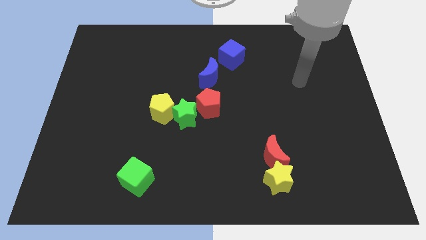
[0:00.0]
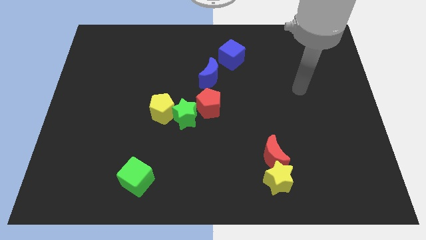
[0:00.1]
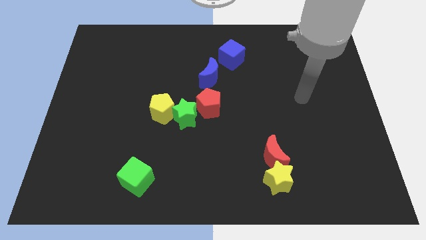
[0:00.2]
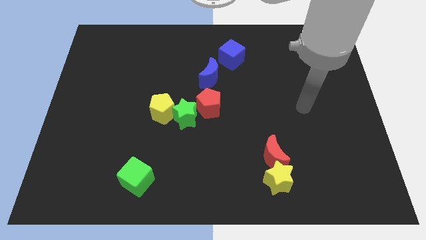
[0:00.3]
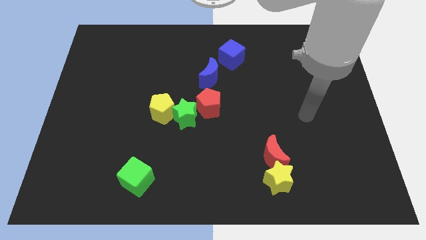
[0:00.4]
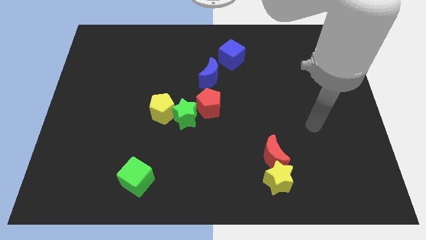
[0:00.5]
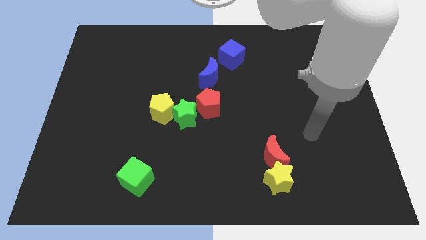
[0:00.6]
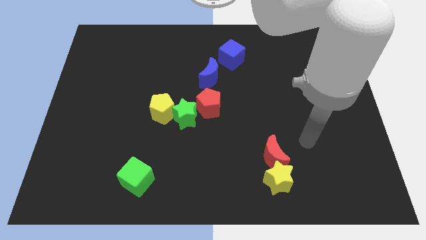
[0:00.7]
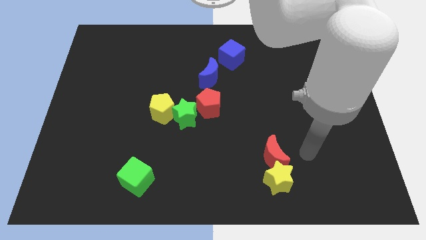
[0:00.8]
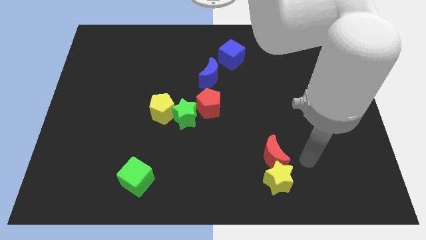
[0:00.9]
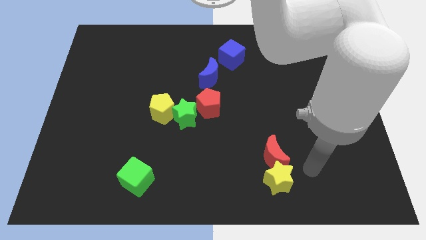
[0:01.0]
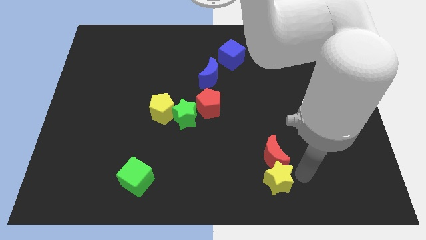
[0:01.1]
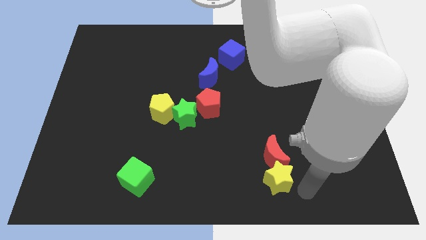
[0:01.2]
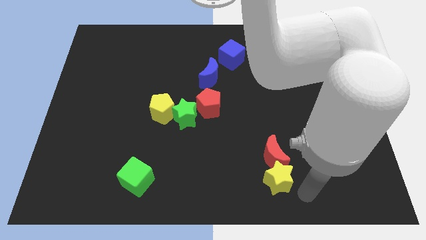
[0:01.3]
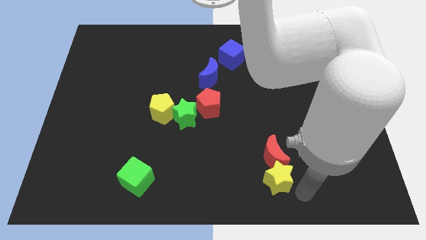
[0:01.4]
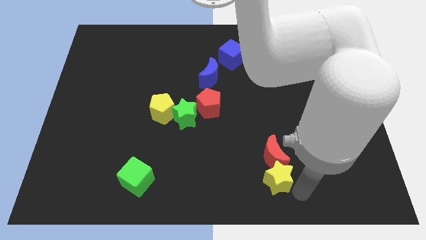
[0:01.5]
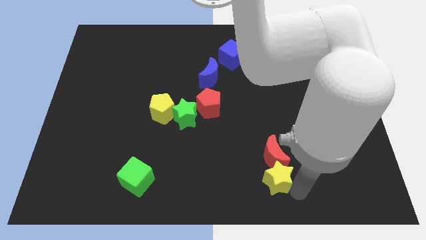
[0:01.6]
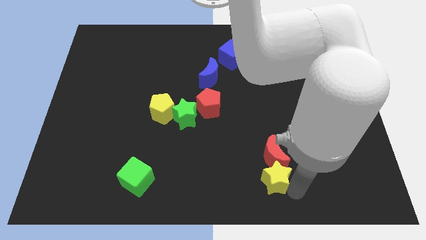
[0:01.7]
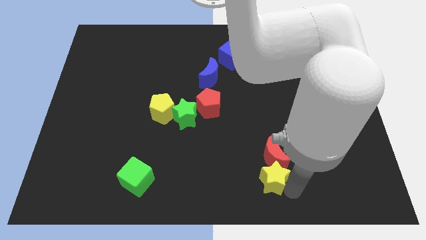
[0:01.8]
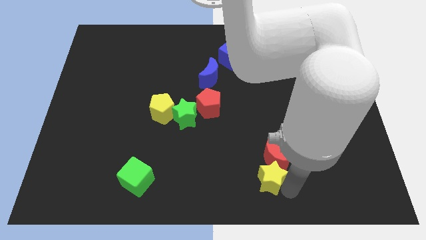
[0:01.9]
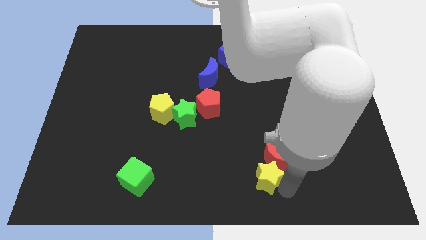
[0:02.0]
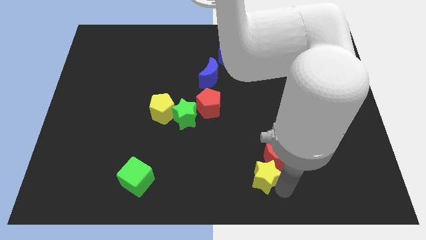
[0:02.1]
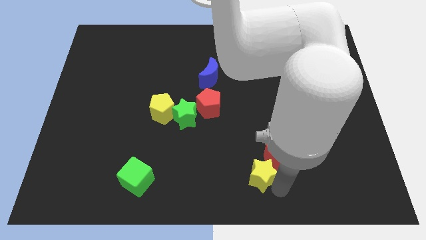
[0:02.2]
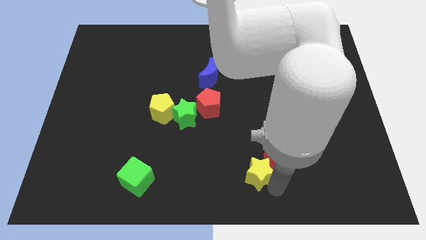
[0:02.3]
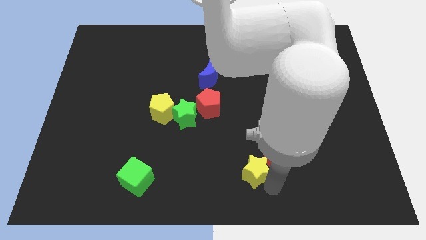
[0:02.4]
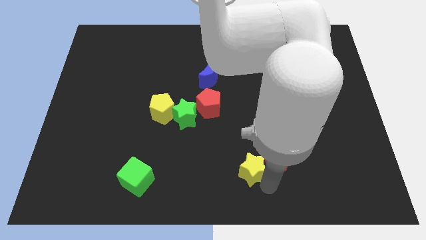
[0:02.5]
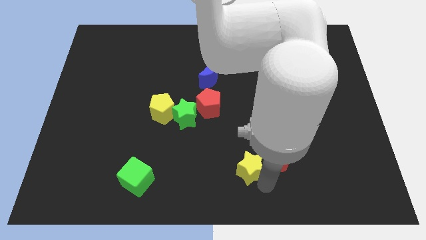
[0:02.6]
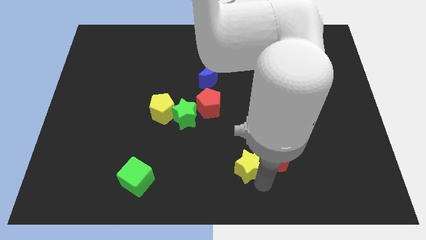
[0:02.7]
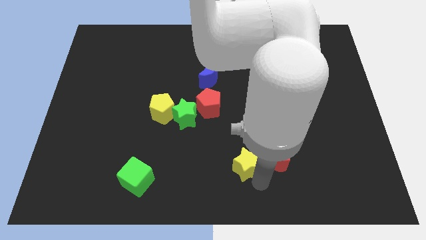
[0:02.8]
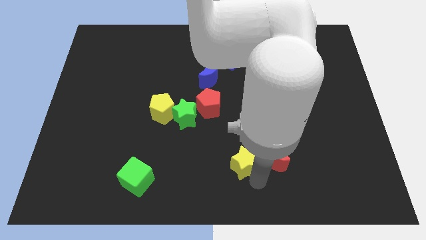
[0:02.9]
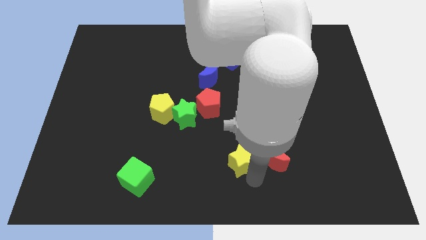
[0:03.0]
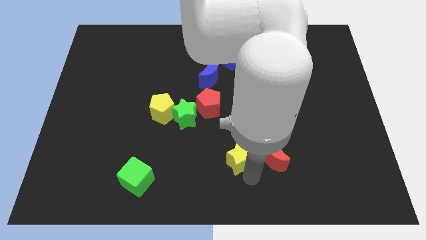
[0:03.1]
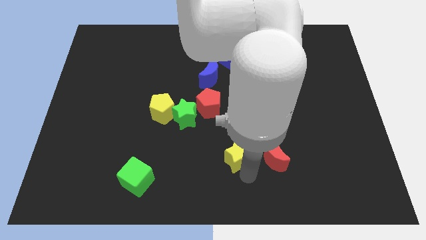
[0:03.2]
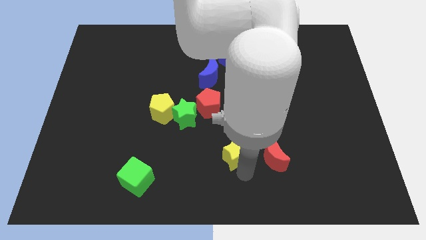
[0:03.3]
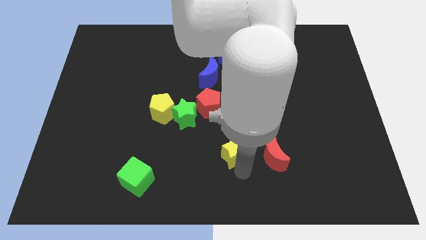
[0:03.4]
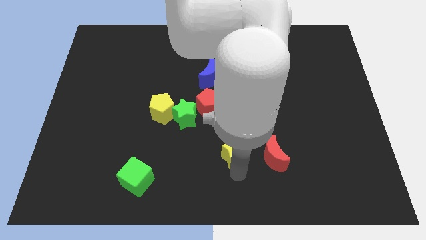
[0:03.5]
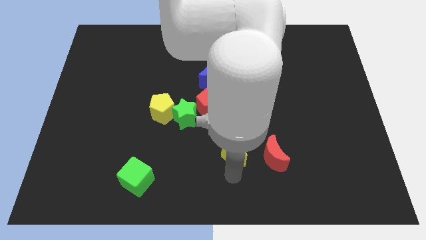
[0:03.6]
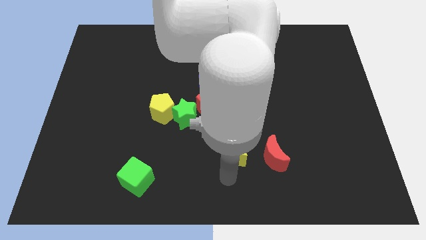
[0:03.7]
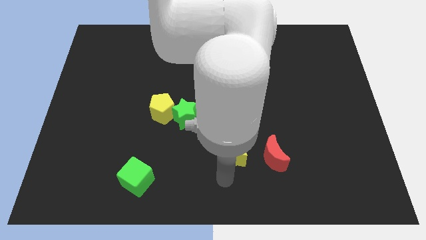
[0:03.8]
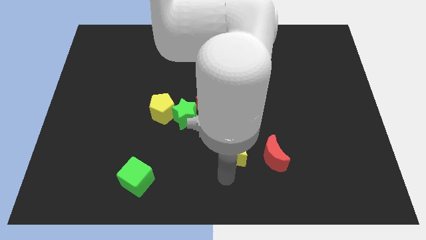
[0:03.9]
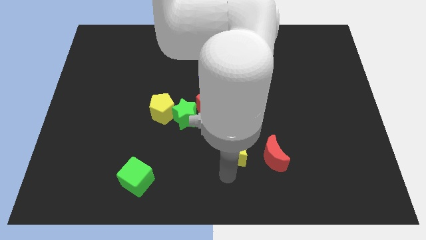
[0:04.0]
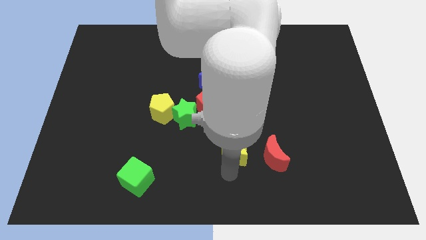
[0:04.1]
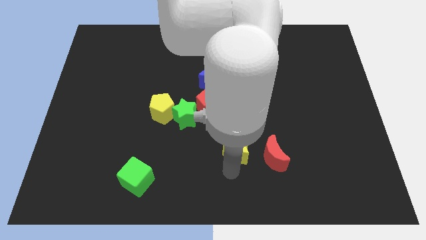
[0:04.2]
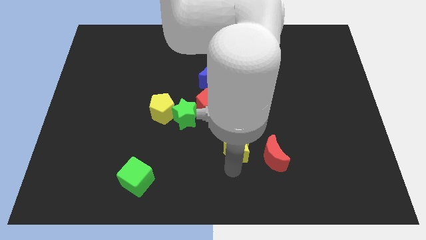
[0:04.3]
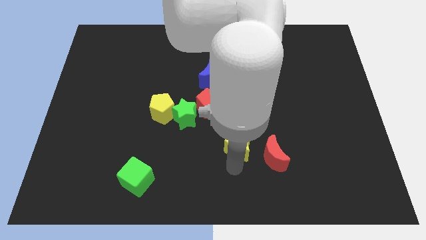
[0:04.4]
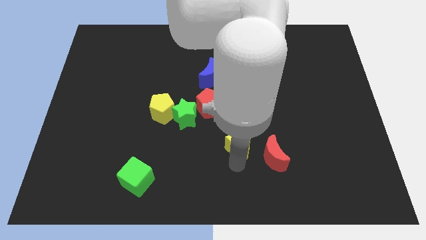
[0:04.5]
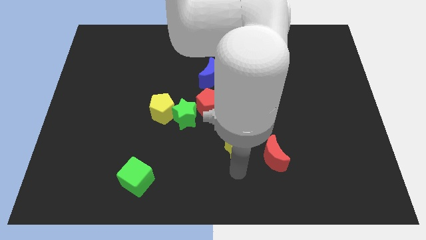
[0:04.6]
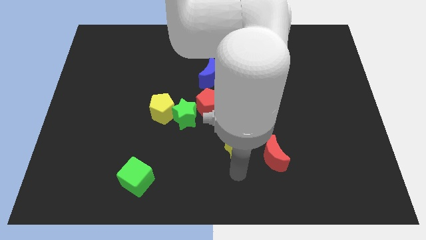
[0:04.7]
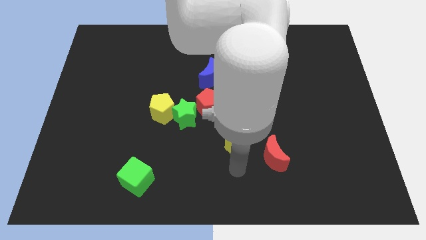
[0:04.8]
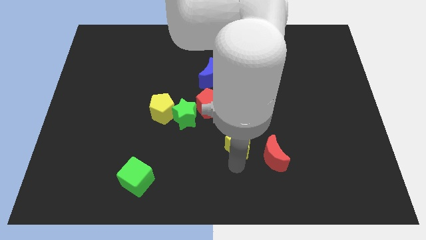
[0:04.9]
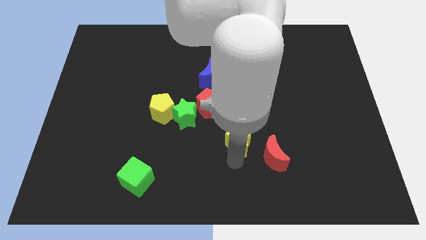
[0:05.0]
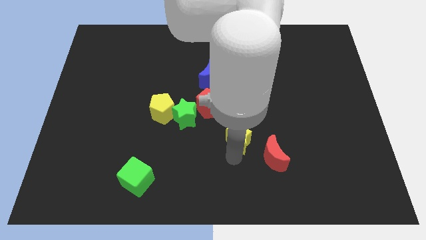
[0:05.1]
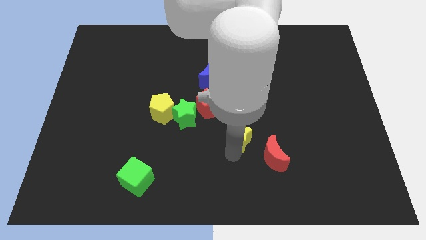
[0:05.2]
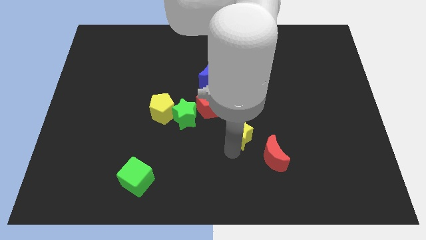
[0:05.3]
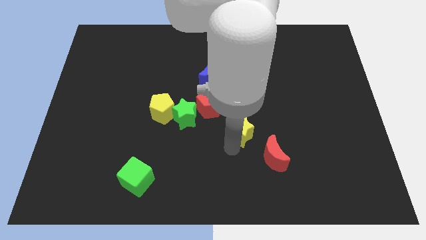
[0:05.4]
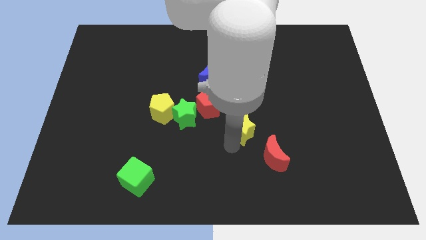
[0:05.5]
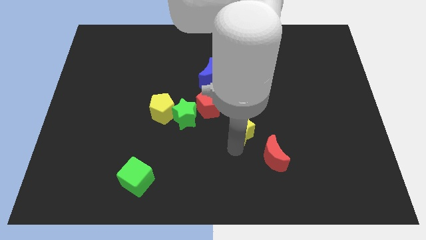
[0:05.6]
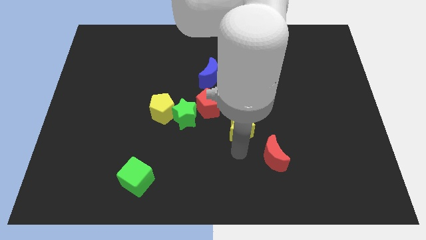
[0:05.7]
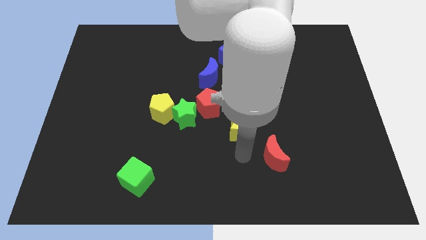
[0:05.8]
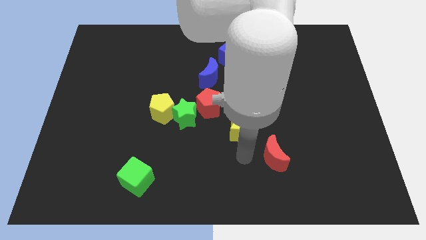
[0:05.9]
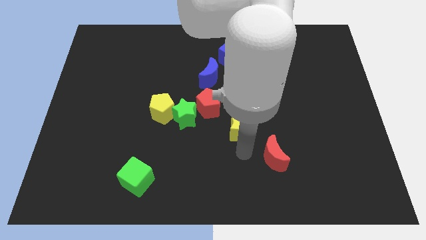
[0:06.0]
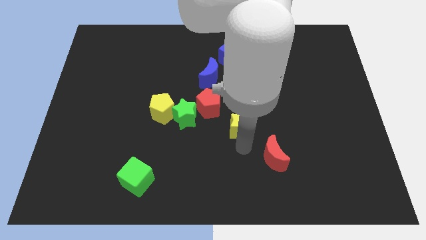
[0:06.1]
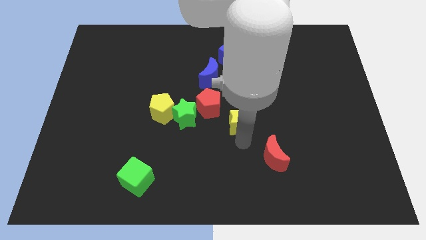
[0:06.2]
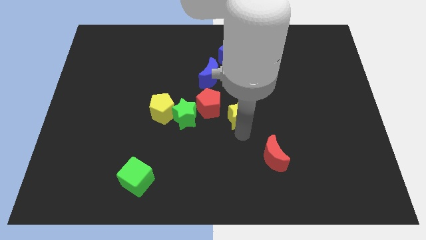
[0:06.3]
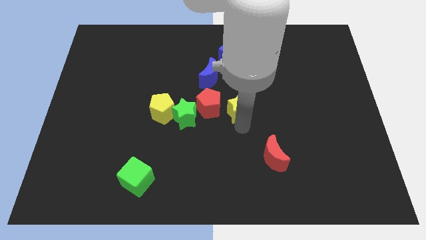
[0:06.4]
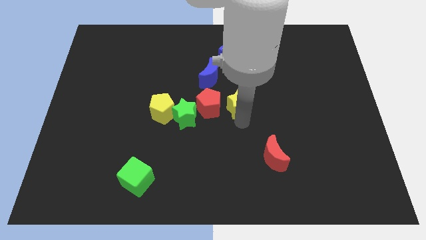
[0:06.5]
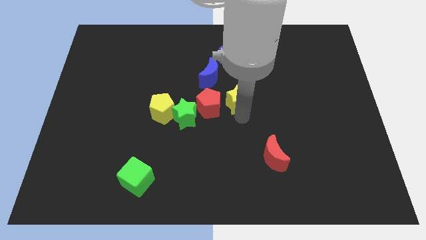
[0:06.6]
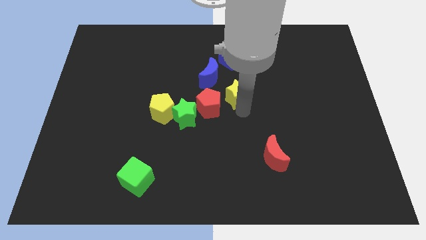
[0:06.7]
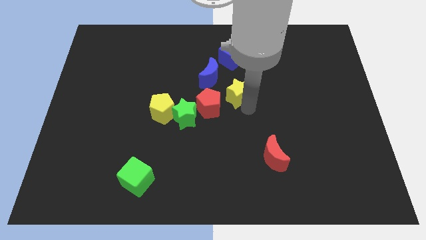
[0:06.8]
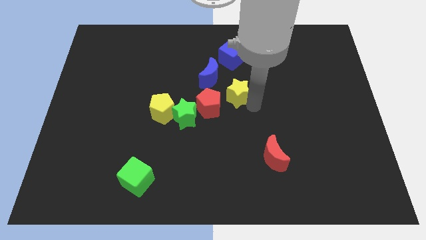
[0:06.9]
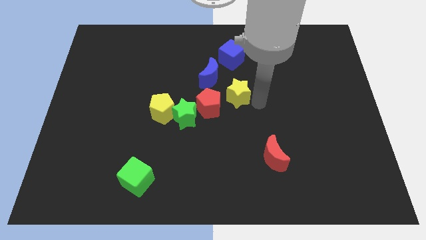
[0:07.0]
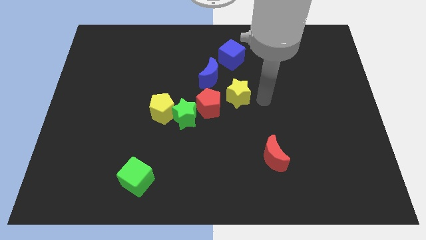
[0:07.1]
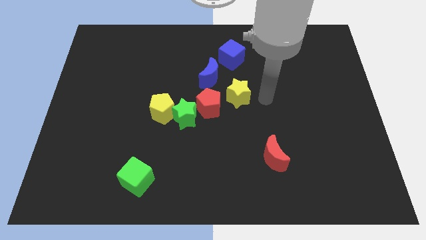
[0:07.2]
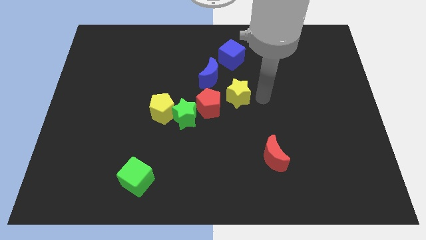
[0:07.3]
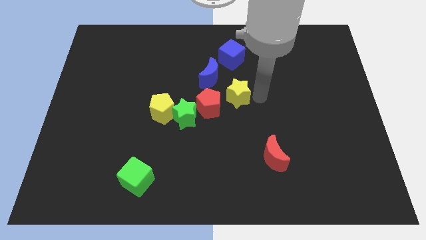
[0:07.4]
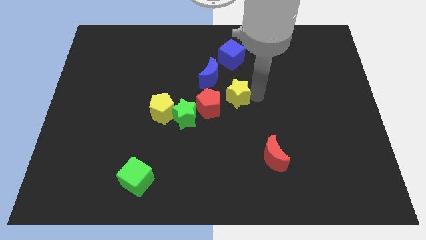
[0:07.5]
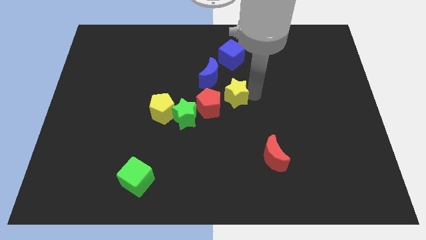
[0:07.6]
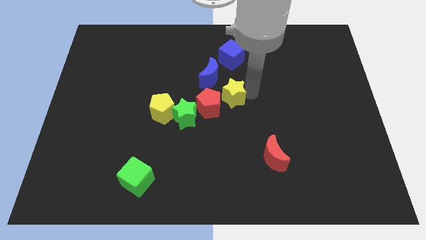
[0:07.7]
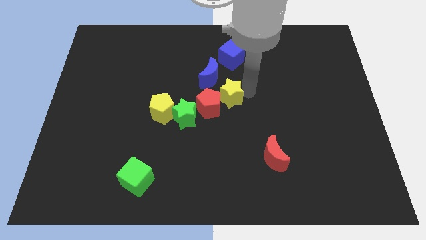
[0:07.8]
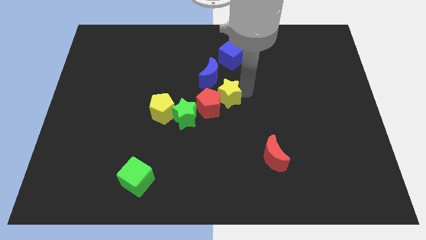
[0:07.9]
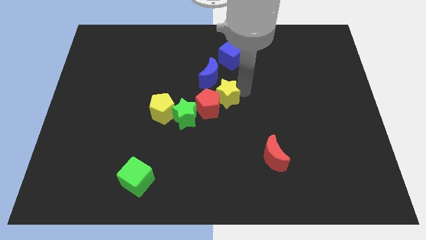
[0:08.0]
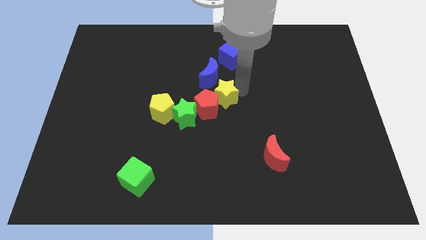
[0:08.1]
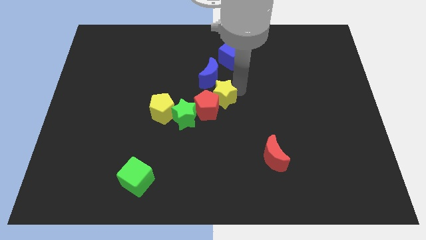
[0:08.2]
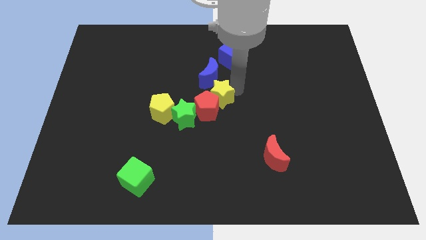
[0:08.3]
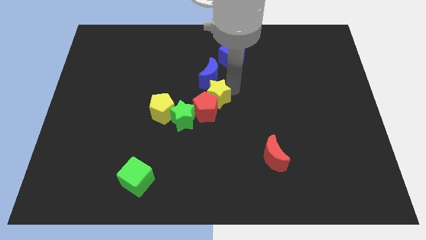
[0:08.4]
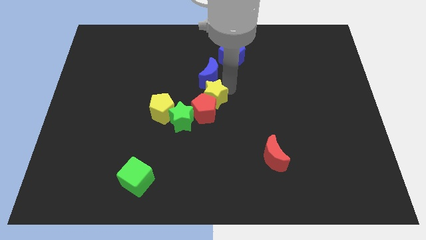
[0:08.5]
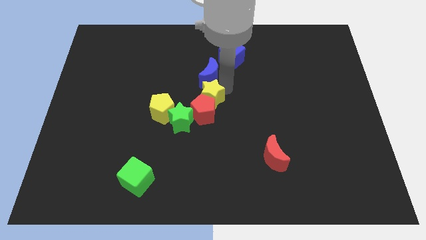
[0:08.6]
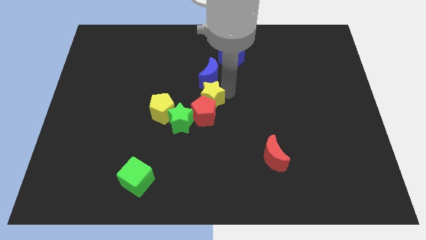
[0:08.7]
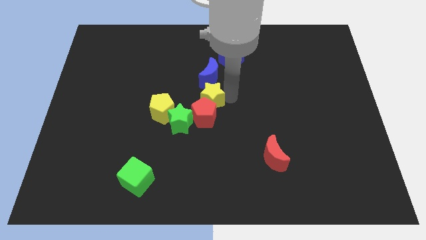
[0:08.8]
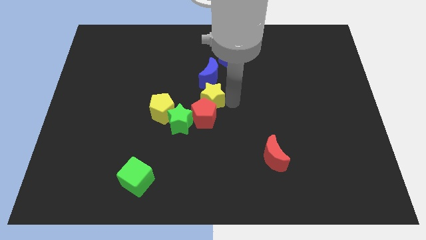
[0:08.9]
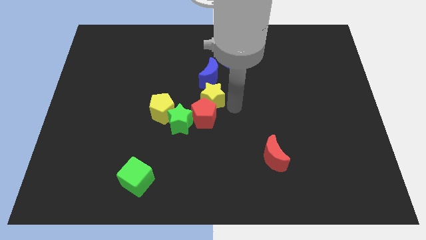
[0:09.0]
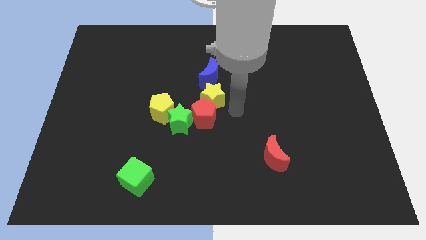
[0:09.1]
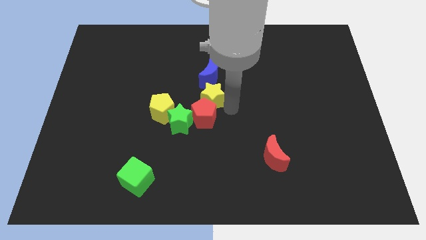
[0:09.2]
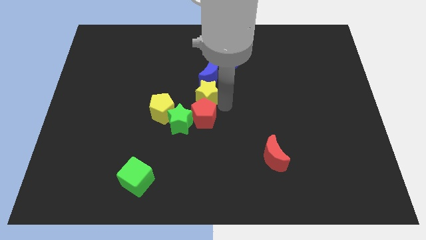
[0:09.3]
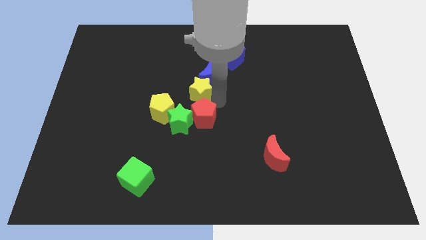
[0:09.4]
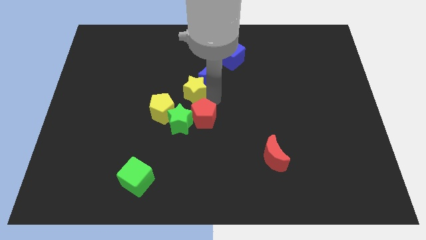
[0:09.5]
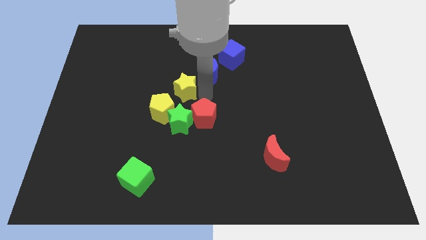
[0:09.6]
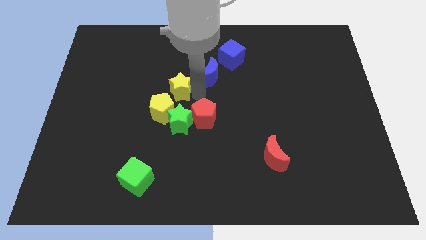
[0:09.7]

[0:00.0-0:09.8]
put the yellow star to the top of the yellow pentagon
